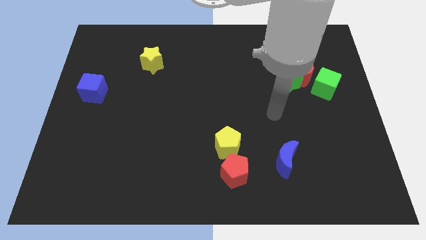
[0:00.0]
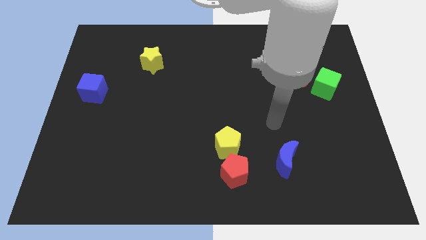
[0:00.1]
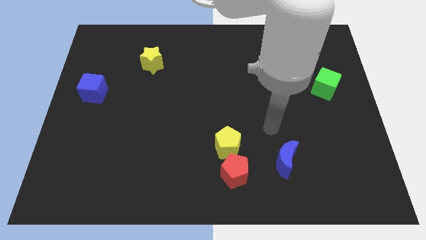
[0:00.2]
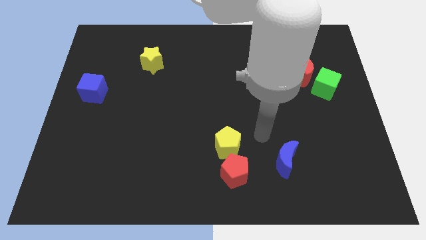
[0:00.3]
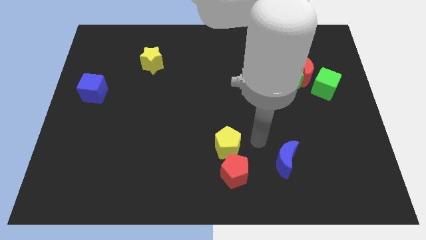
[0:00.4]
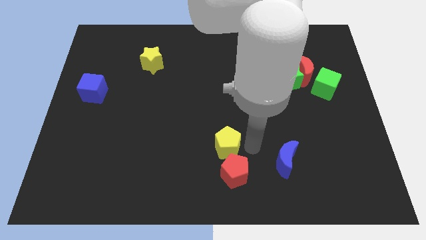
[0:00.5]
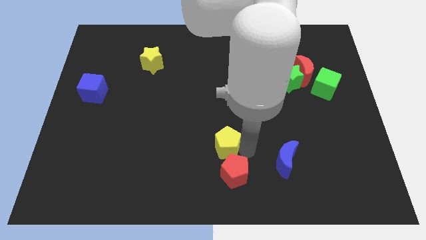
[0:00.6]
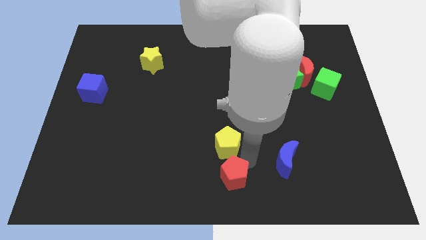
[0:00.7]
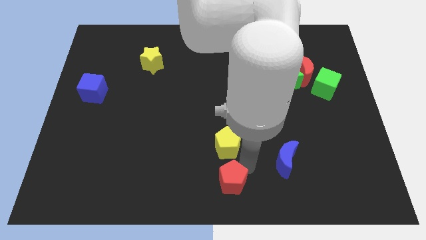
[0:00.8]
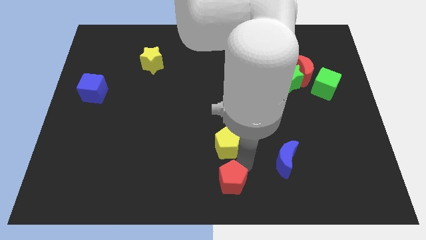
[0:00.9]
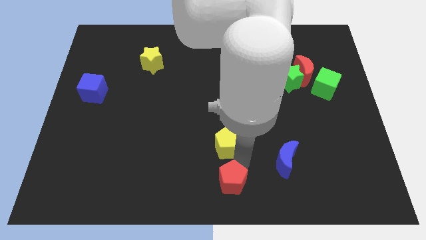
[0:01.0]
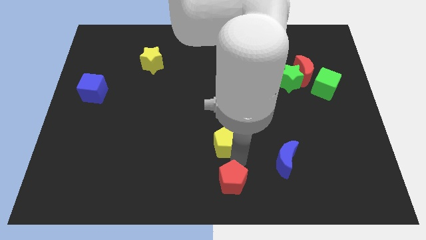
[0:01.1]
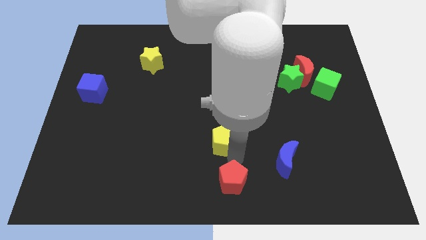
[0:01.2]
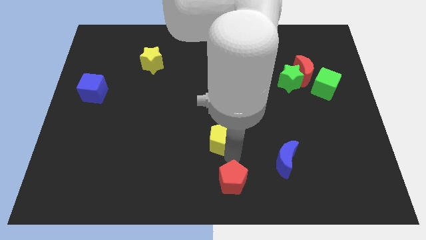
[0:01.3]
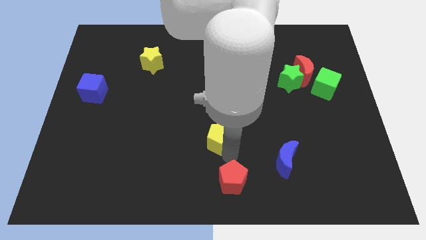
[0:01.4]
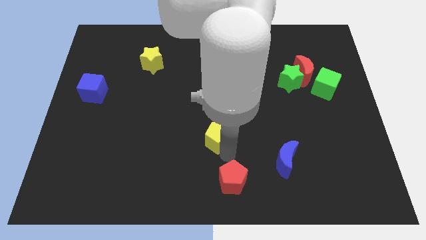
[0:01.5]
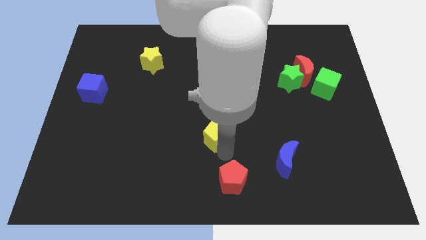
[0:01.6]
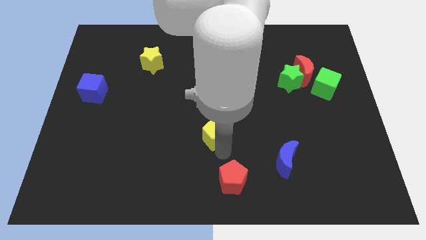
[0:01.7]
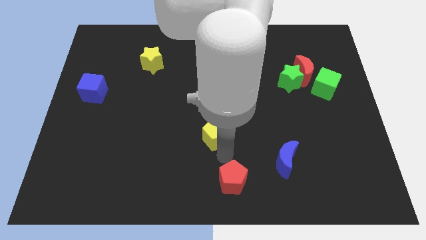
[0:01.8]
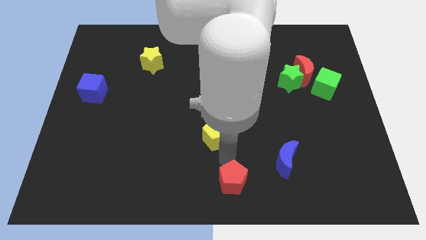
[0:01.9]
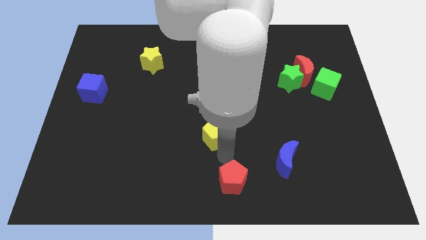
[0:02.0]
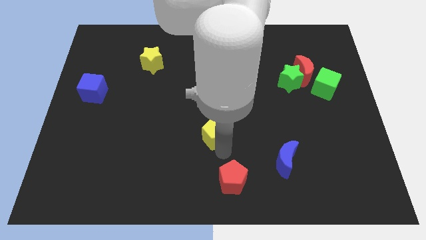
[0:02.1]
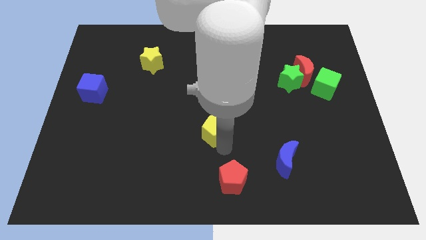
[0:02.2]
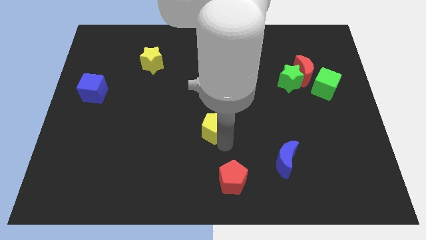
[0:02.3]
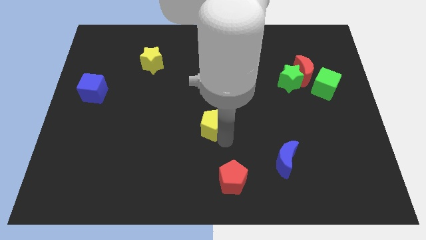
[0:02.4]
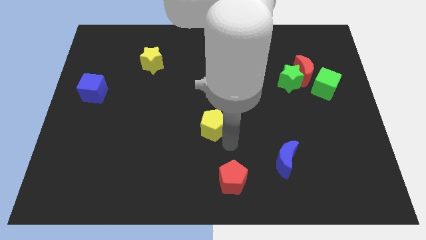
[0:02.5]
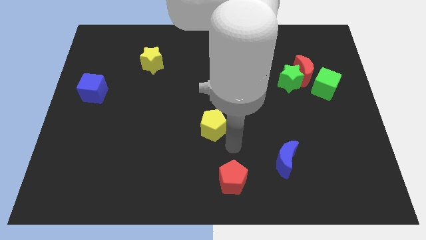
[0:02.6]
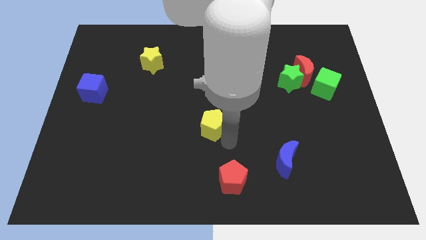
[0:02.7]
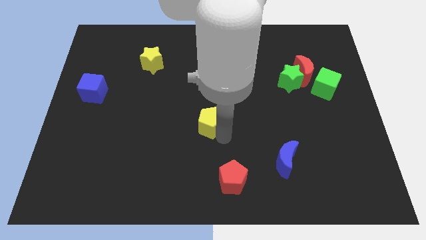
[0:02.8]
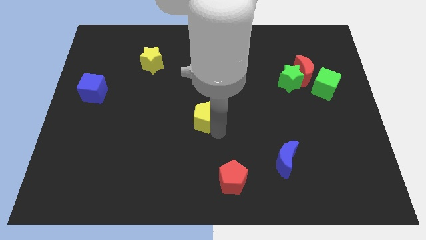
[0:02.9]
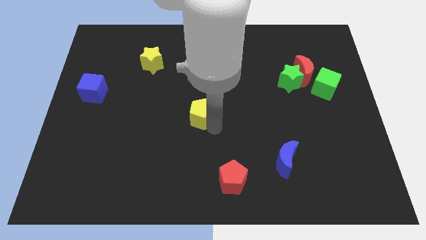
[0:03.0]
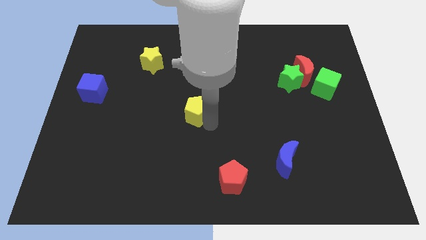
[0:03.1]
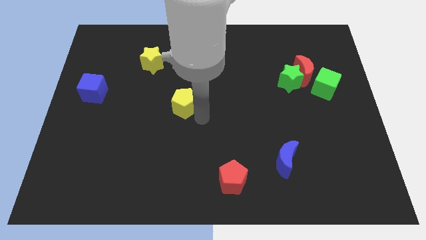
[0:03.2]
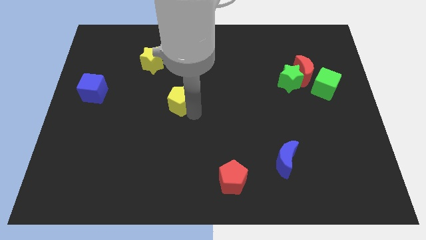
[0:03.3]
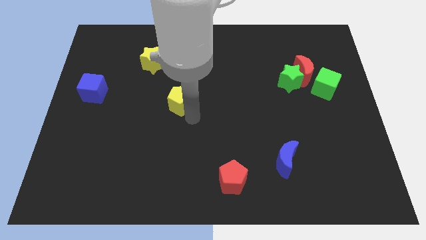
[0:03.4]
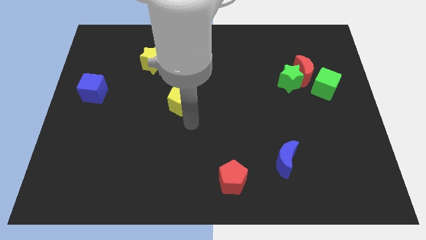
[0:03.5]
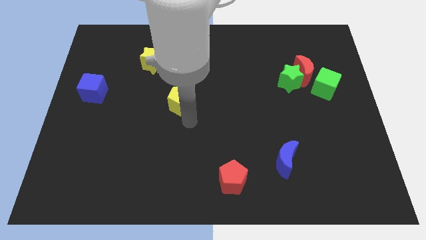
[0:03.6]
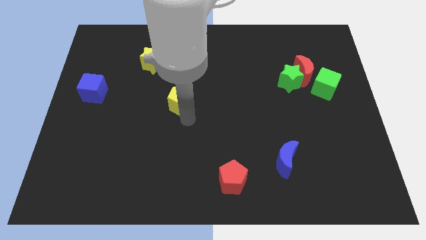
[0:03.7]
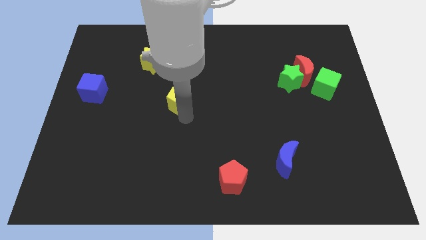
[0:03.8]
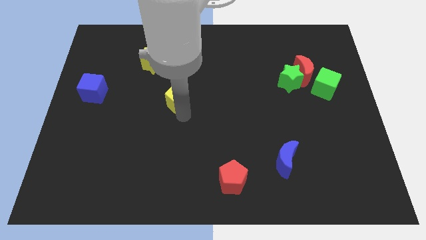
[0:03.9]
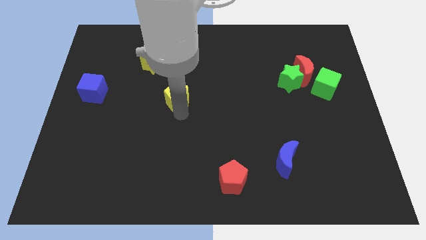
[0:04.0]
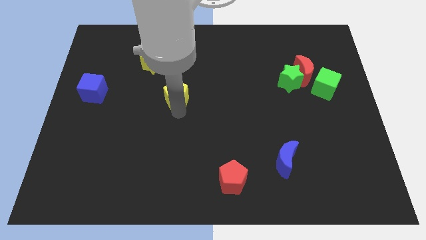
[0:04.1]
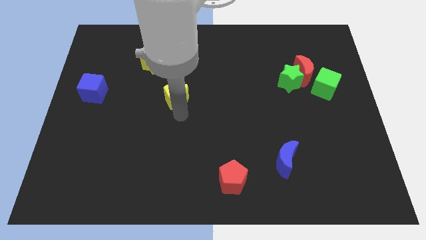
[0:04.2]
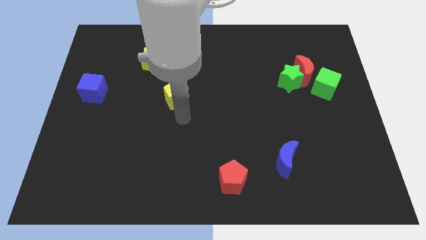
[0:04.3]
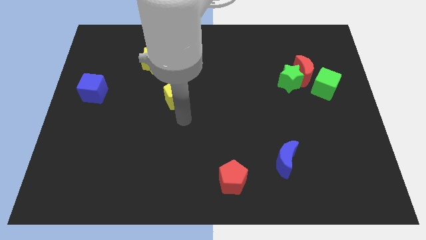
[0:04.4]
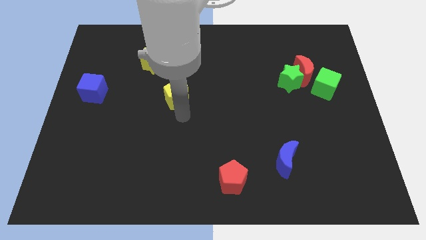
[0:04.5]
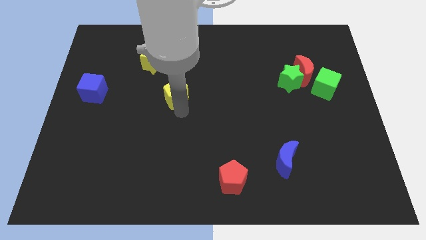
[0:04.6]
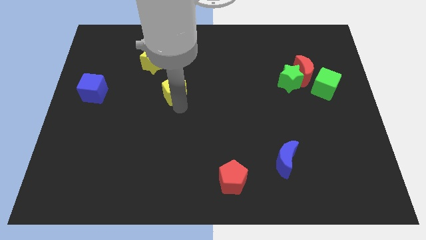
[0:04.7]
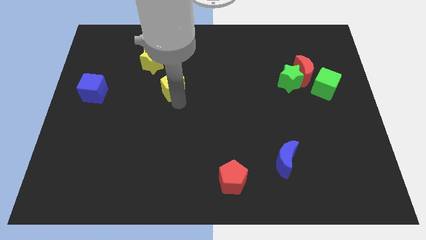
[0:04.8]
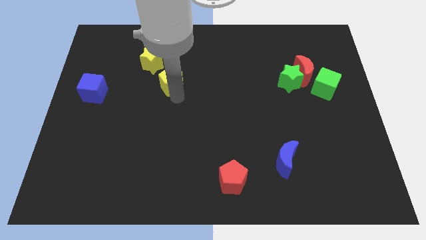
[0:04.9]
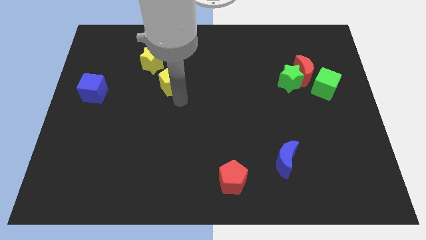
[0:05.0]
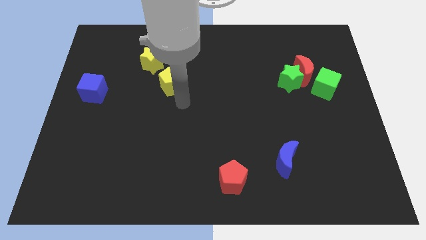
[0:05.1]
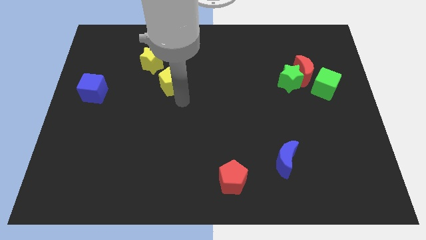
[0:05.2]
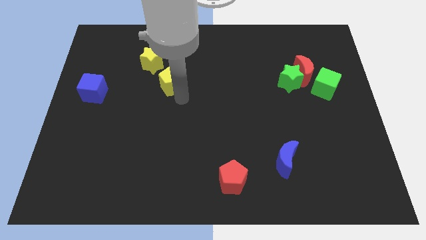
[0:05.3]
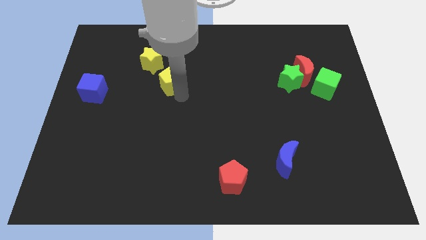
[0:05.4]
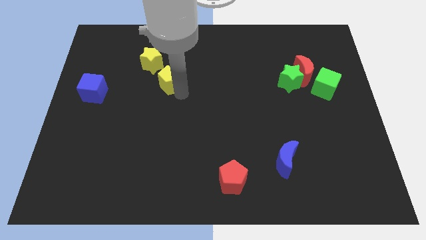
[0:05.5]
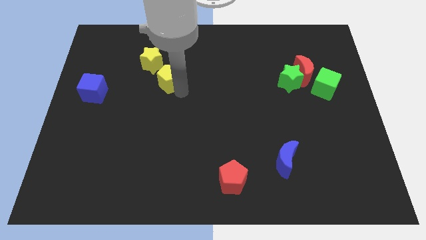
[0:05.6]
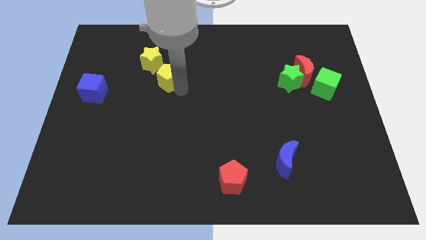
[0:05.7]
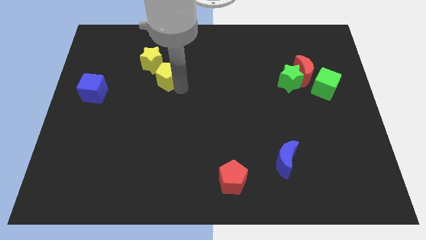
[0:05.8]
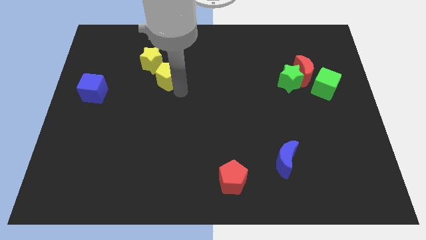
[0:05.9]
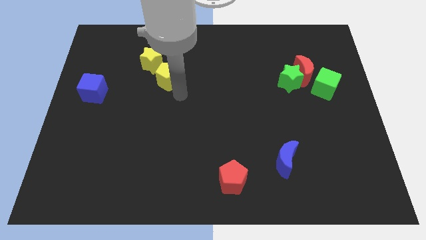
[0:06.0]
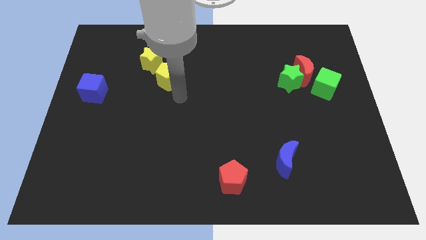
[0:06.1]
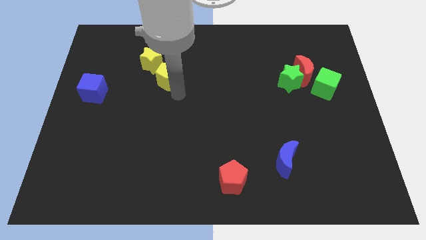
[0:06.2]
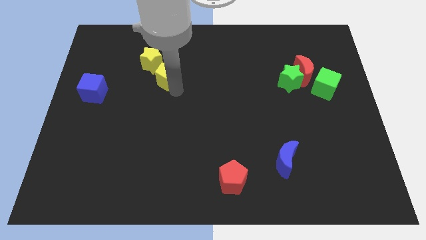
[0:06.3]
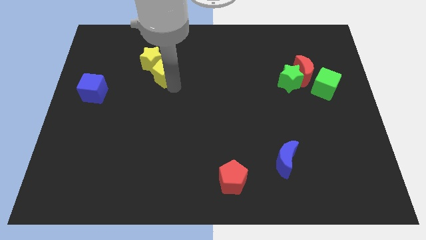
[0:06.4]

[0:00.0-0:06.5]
put the yellow pentagon close to the yellow star
